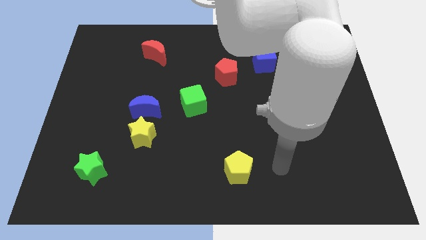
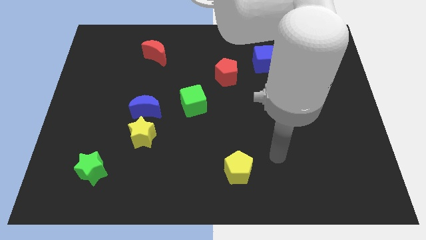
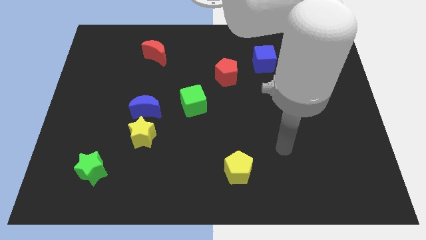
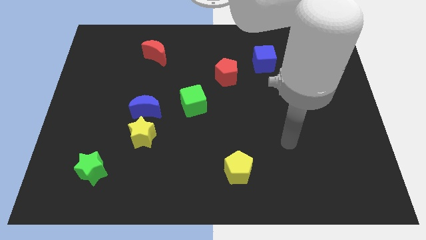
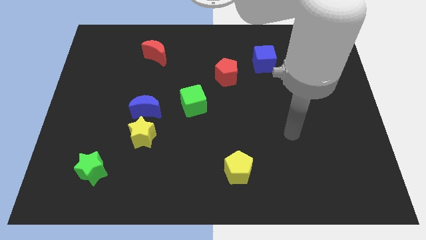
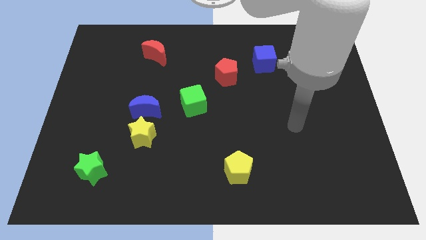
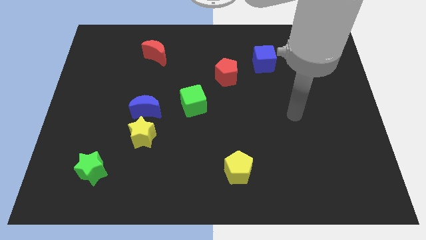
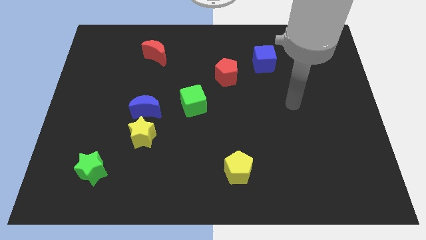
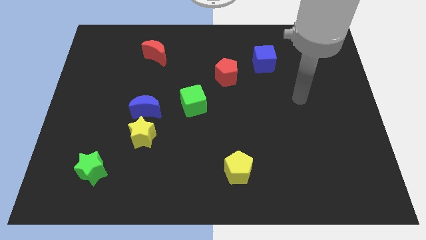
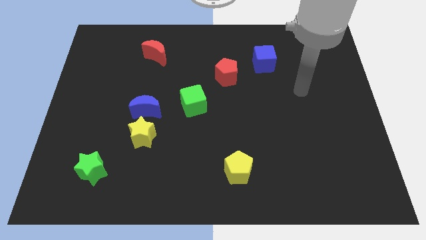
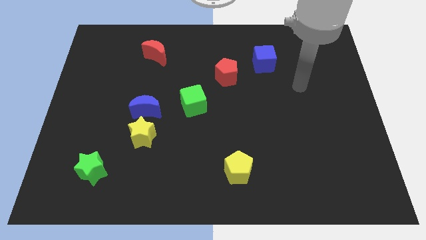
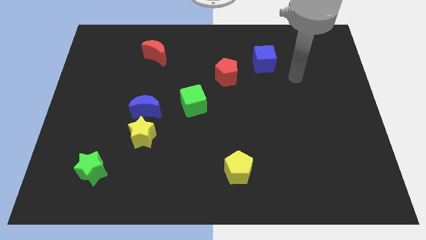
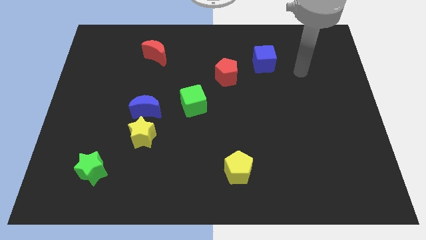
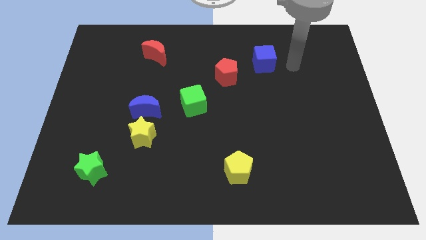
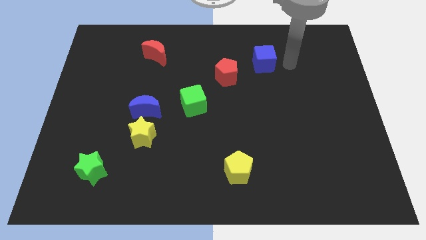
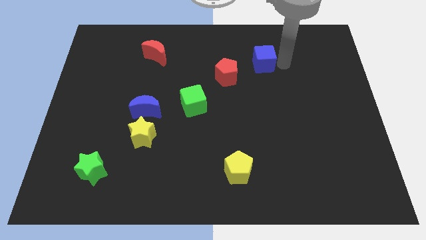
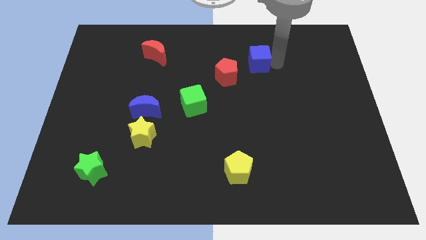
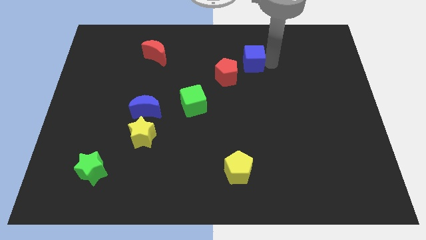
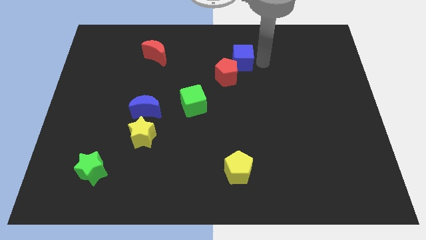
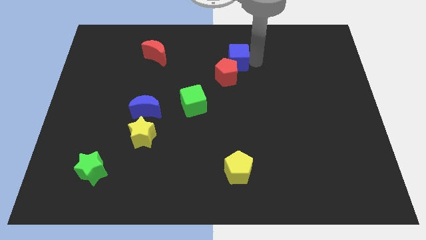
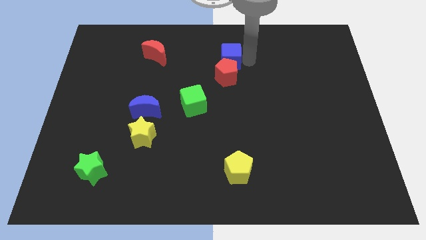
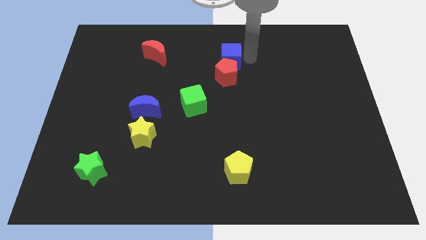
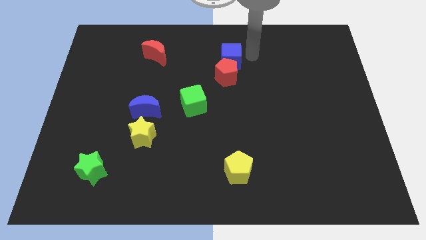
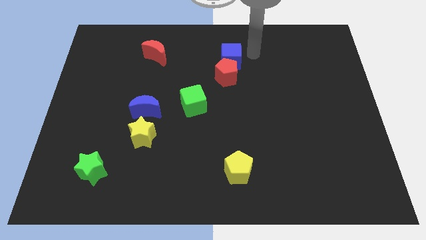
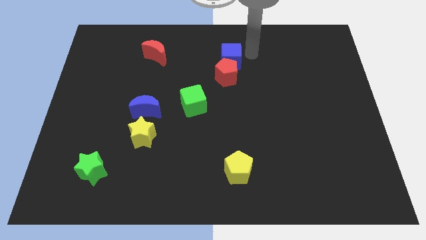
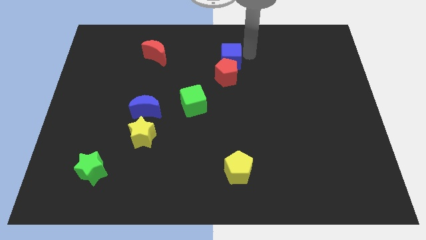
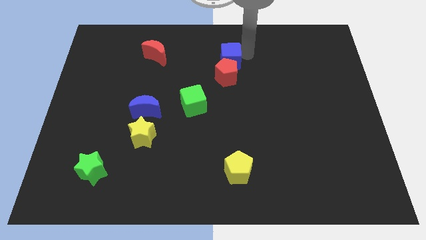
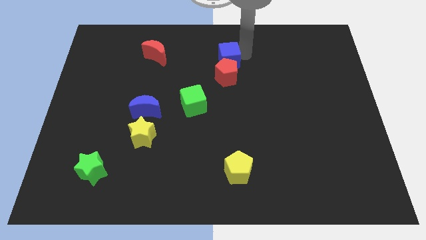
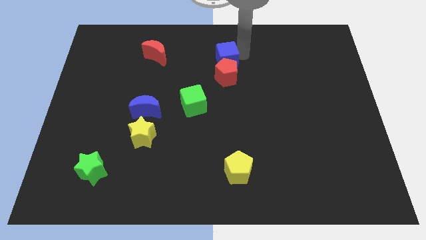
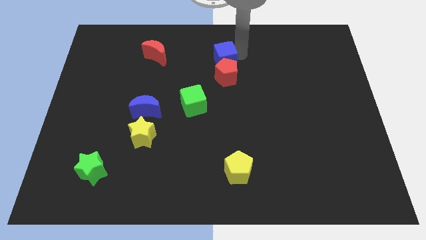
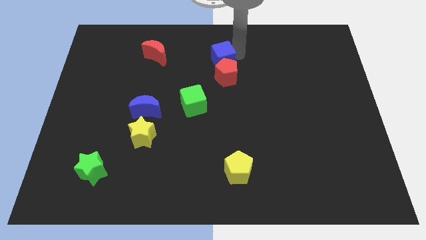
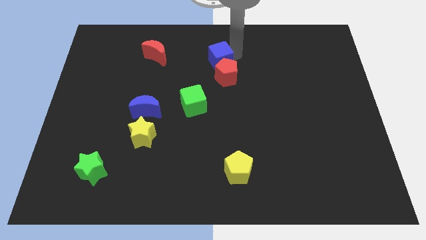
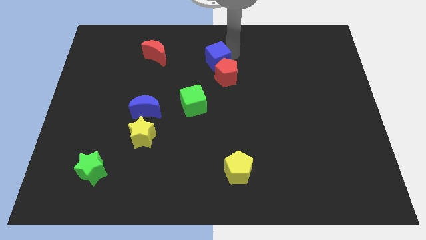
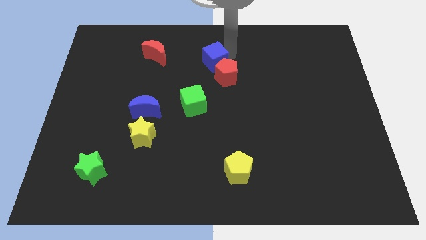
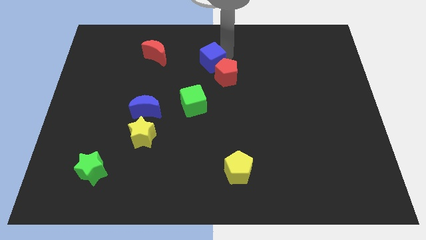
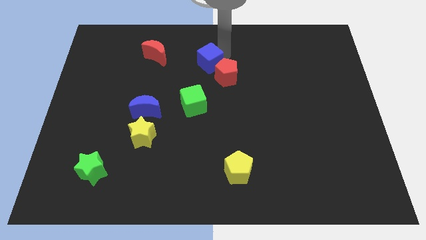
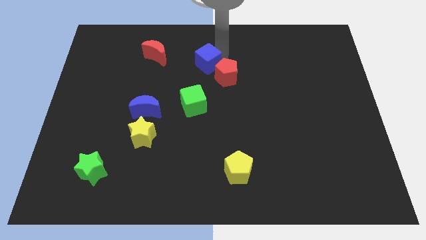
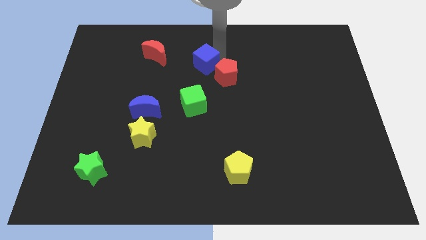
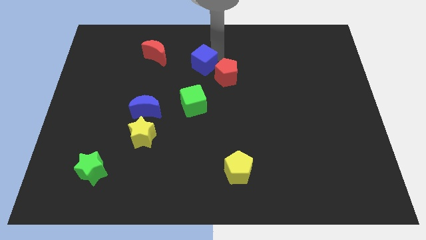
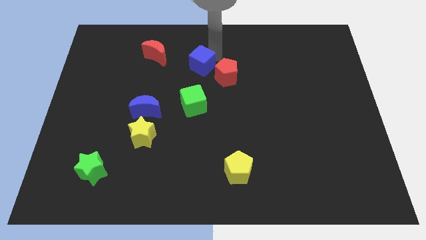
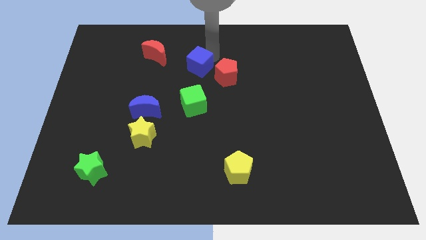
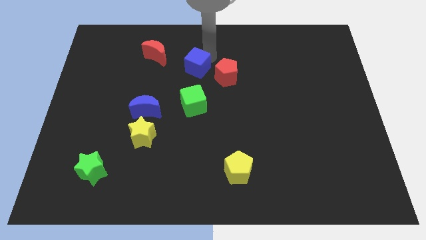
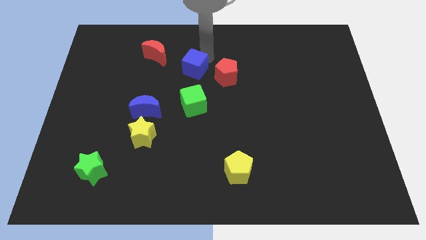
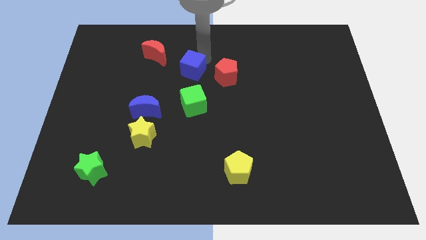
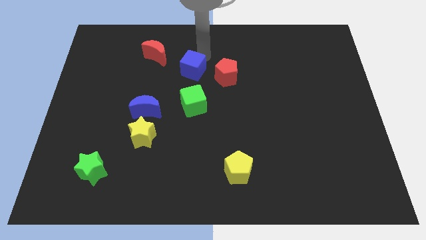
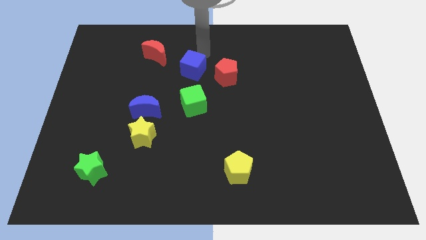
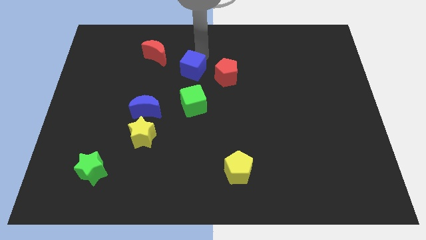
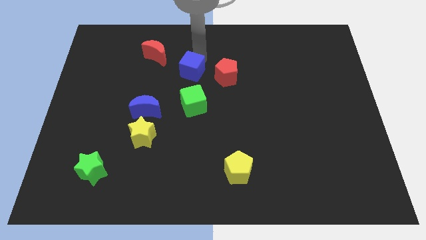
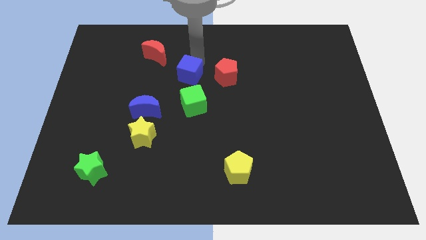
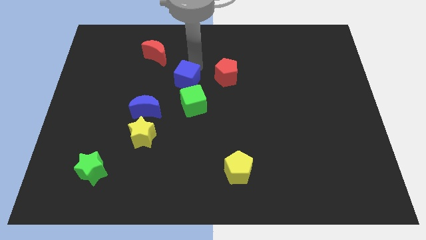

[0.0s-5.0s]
slide the blue cube to the top left of the green cube

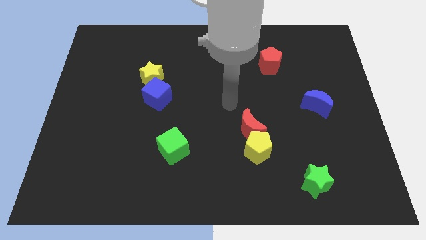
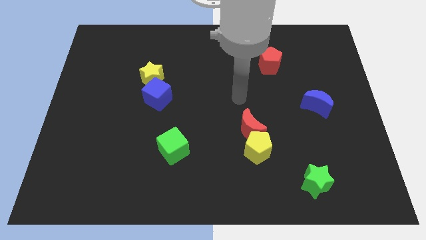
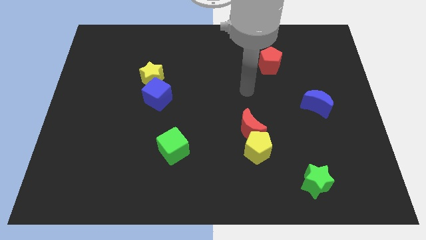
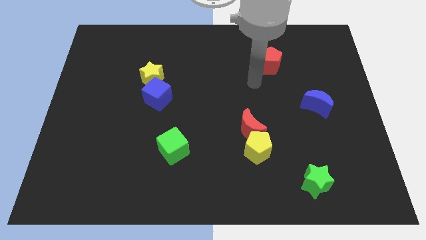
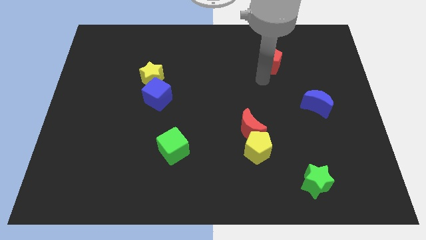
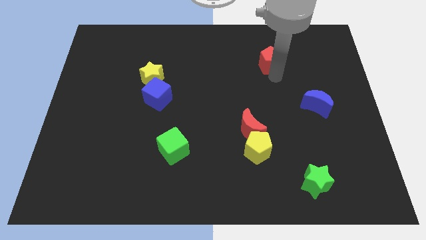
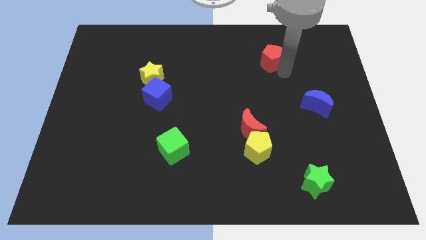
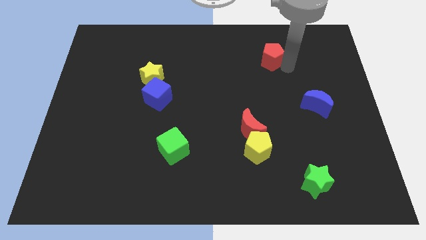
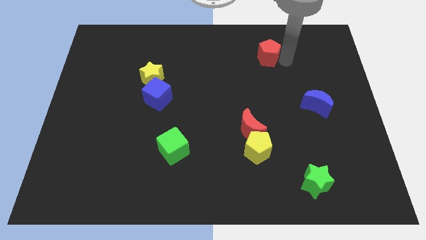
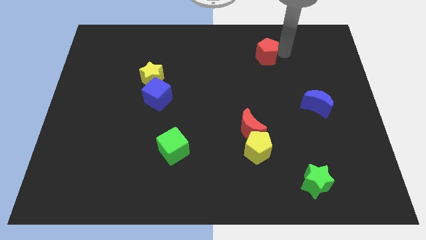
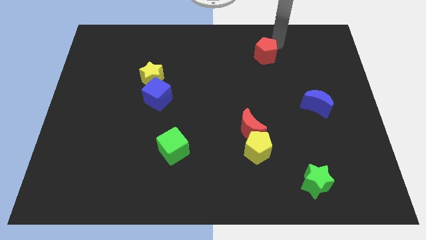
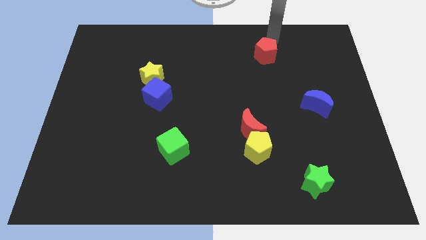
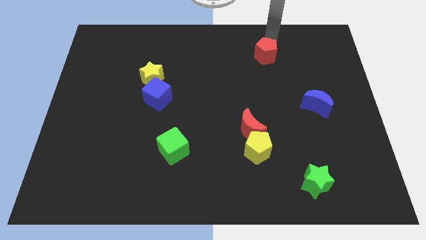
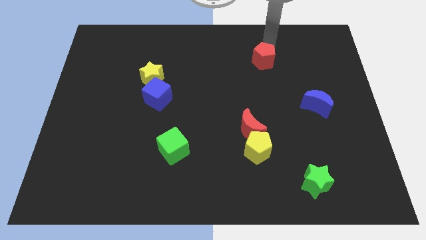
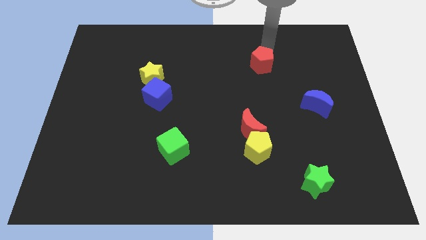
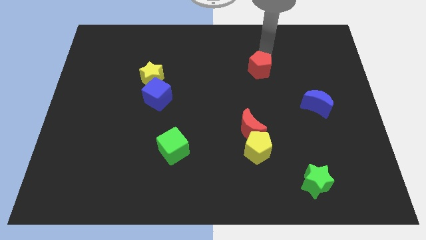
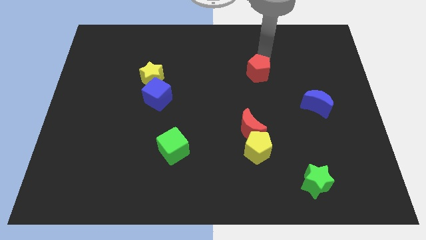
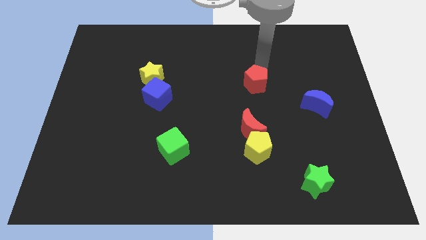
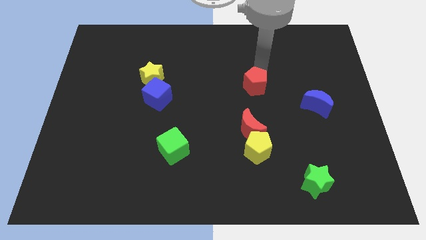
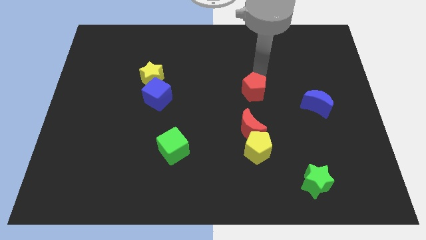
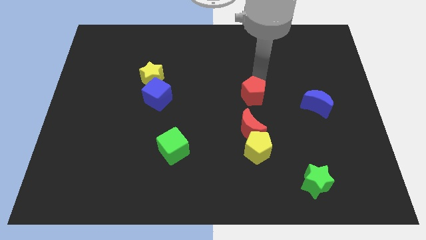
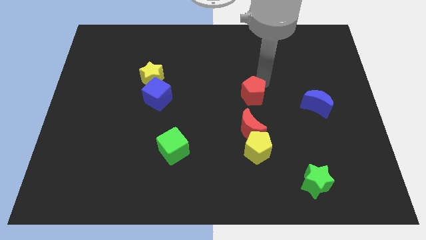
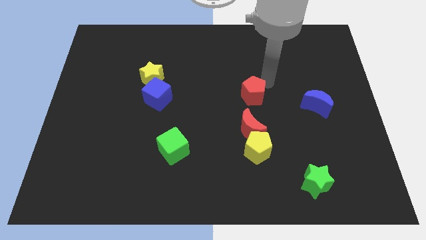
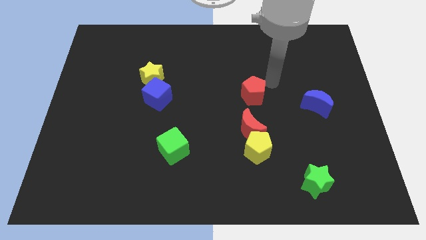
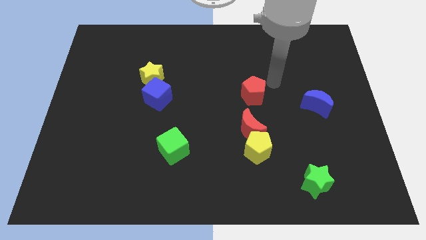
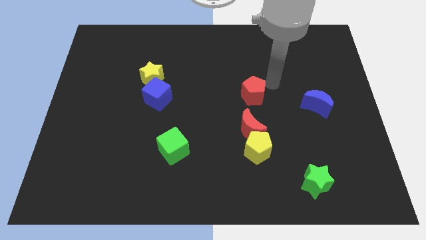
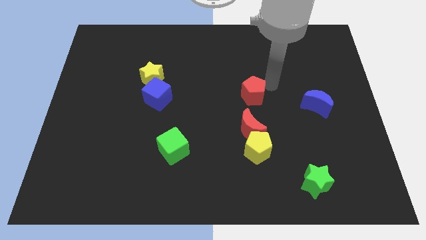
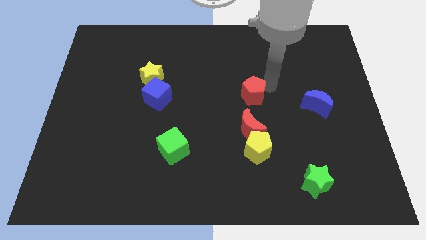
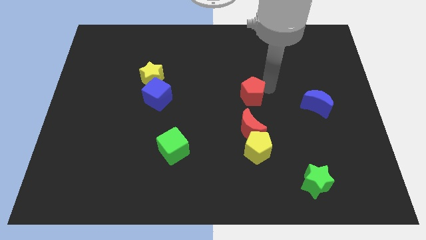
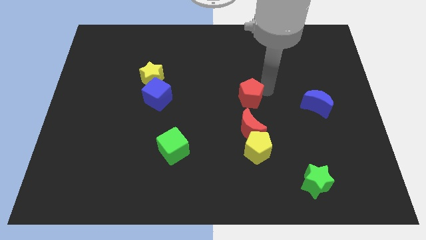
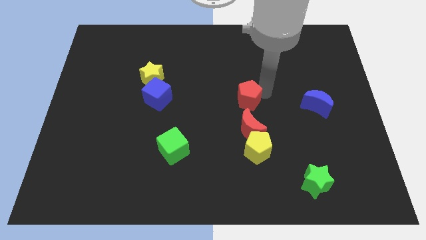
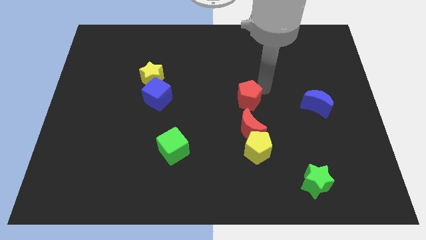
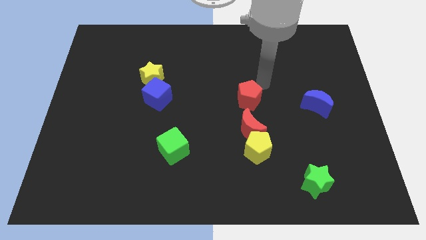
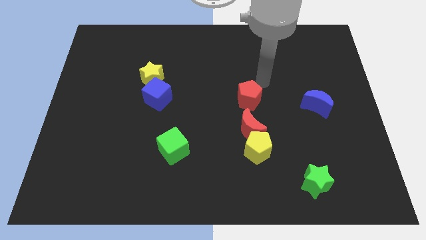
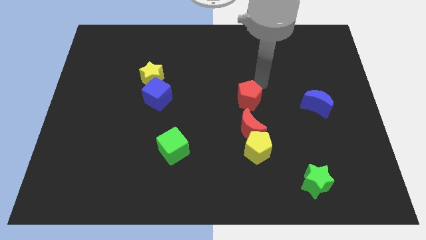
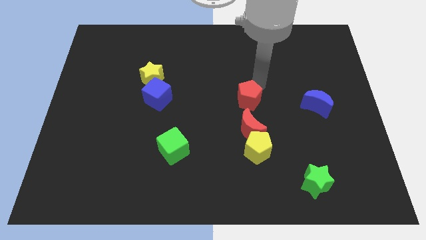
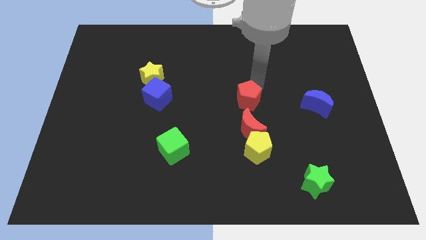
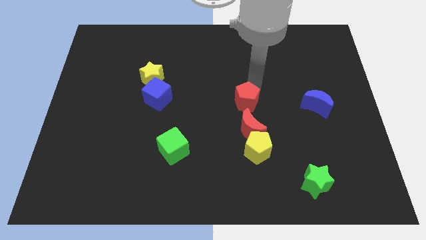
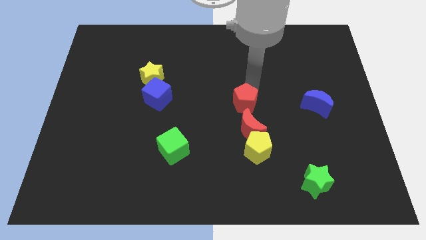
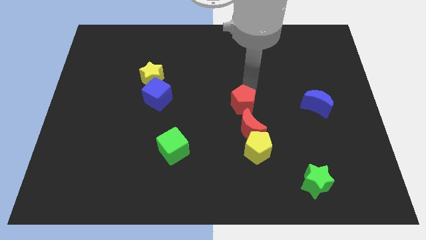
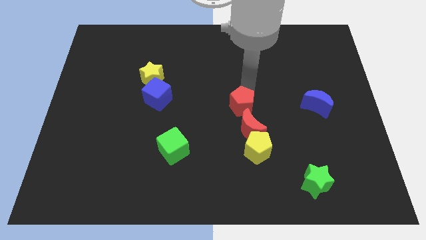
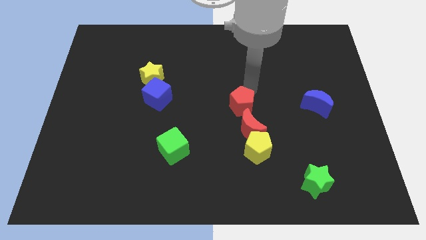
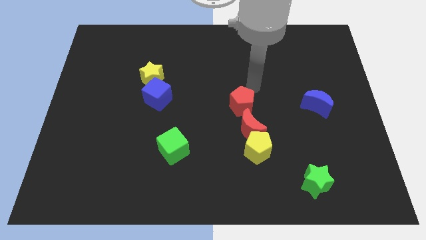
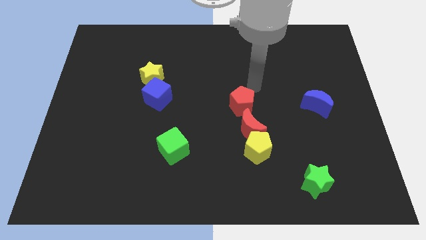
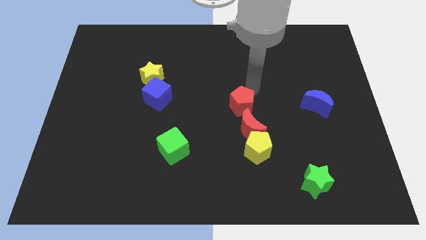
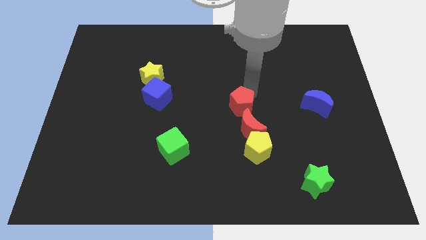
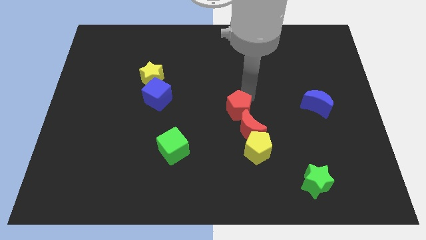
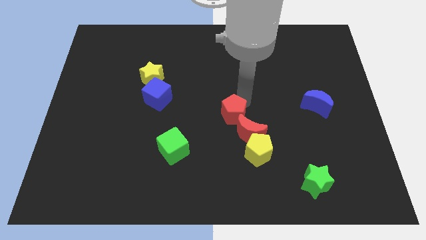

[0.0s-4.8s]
push the red pentagon diagonally up and to the left of the yellow pentagon
